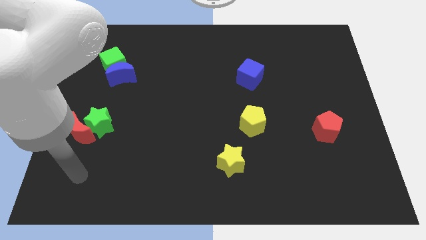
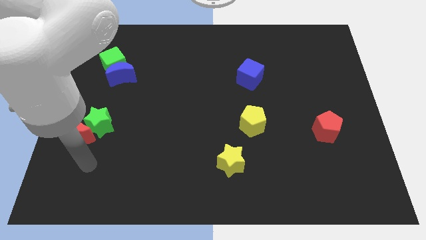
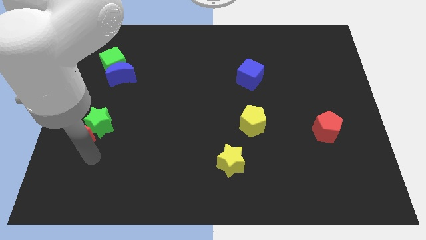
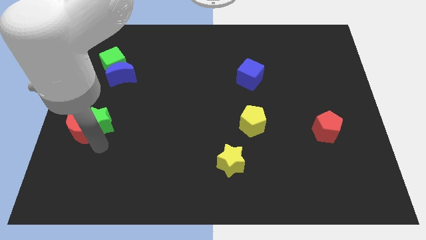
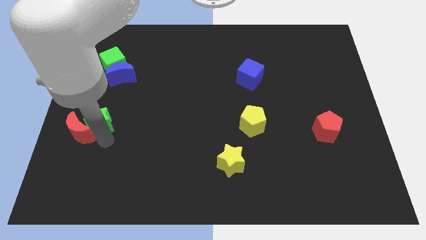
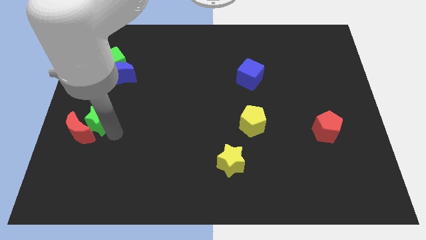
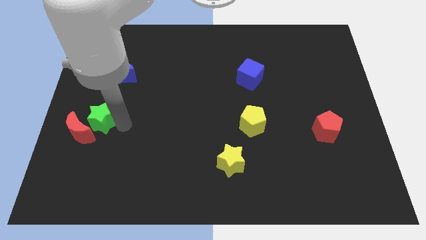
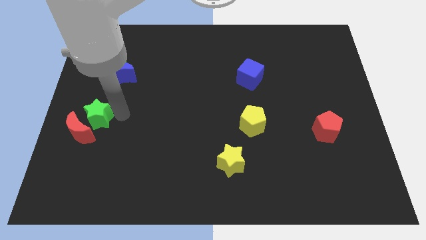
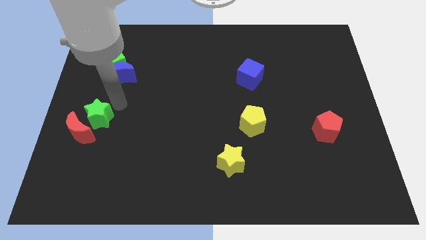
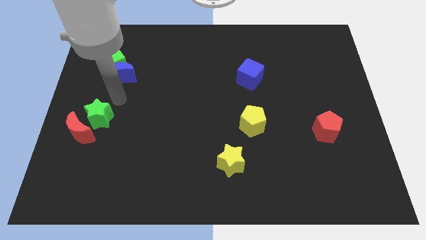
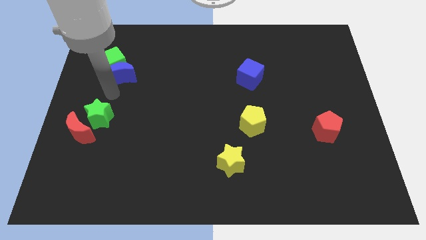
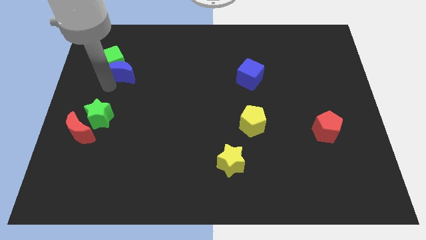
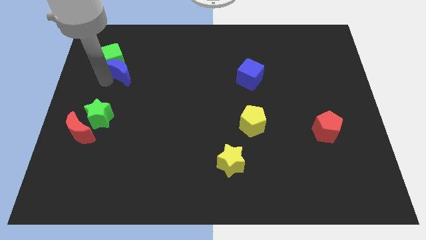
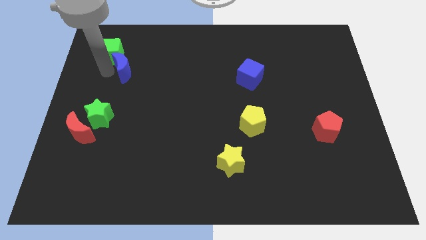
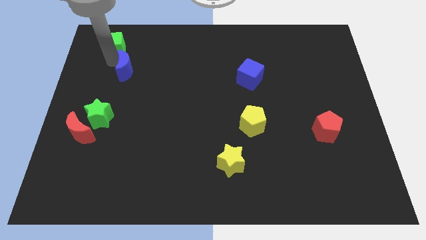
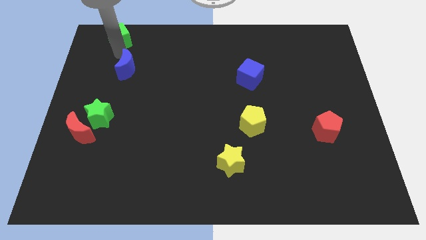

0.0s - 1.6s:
pull the blue moon apart from the green cube

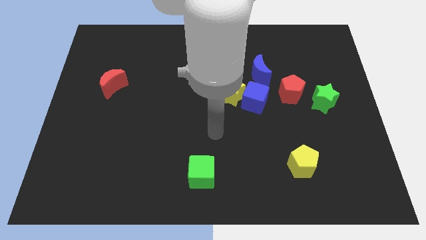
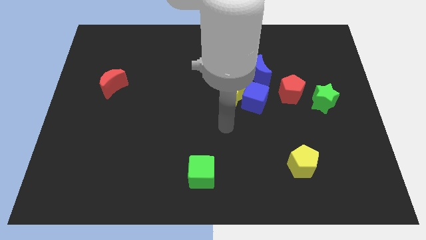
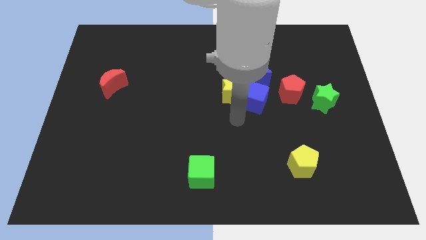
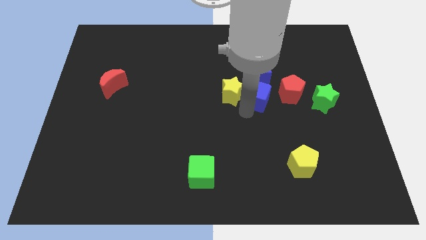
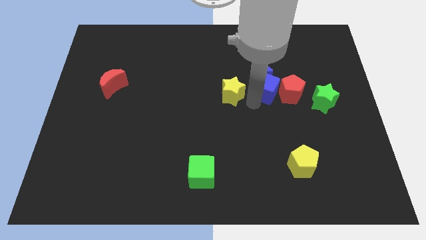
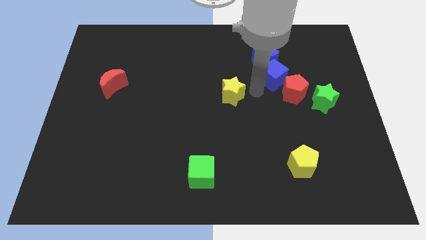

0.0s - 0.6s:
separate the yellow star from the blue cube and blue moon

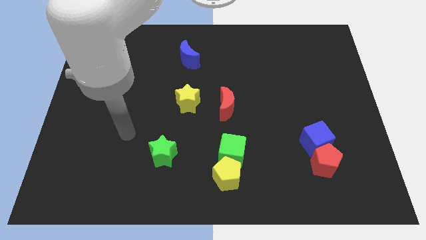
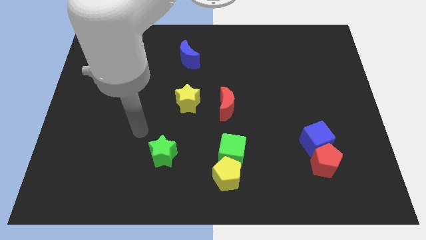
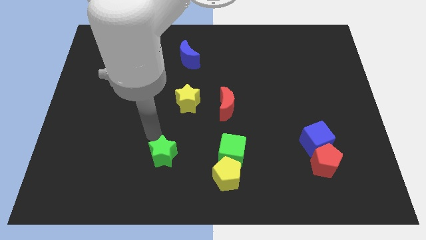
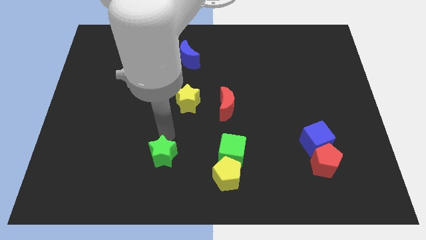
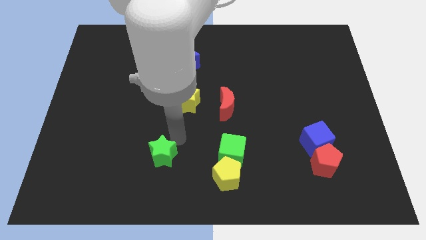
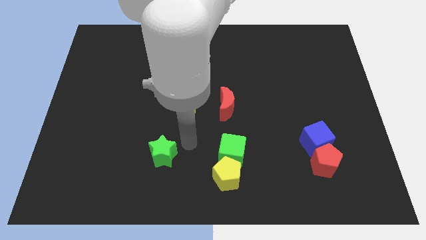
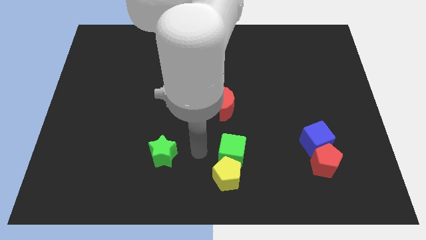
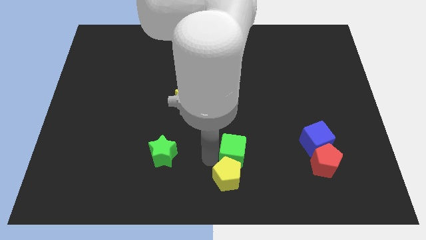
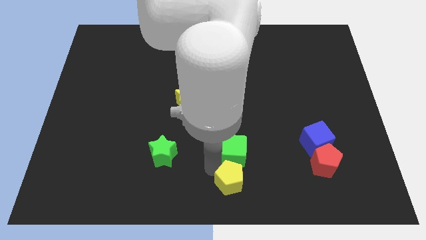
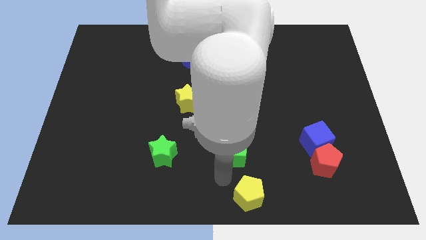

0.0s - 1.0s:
move the green cube away from the yellow pentagon

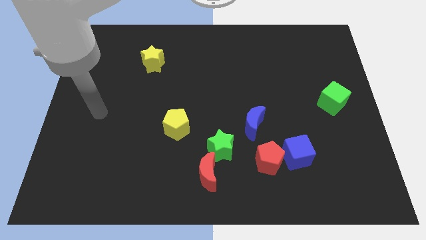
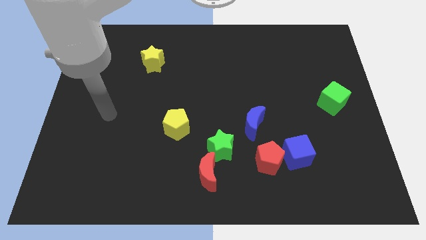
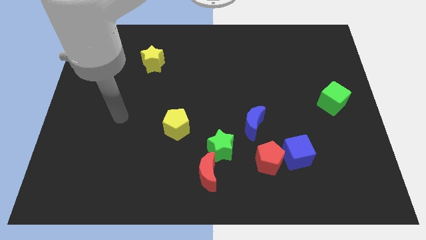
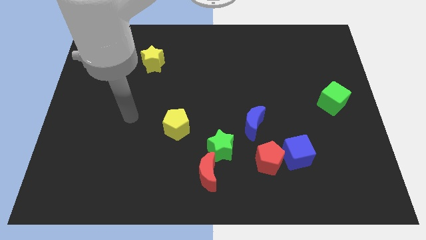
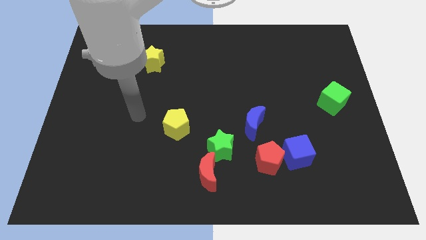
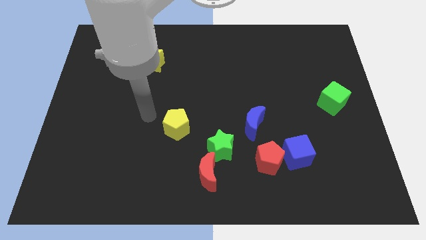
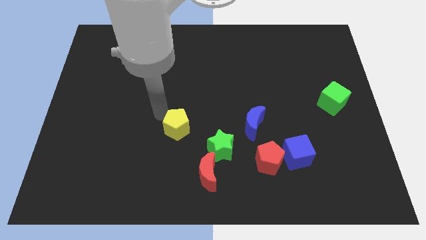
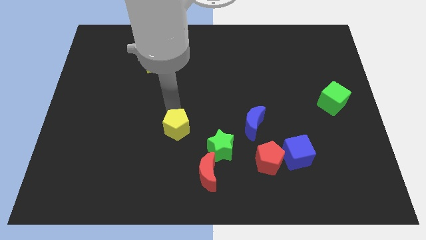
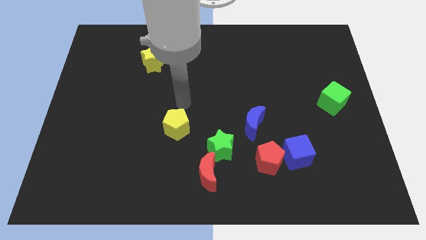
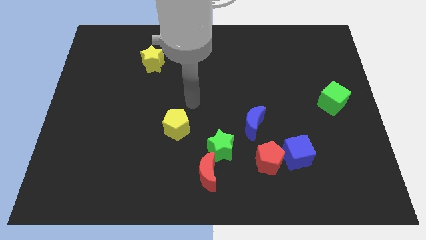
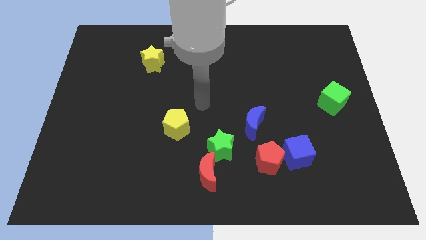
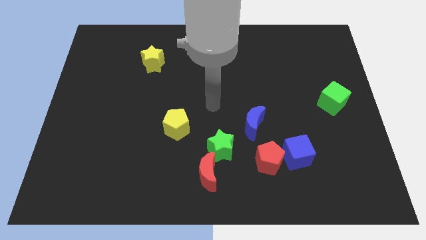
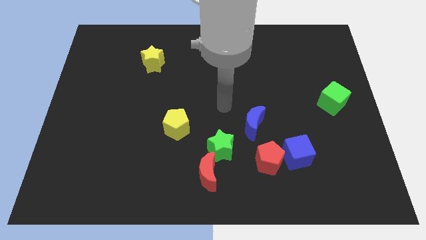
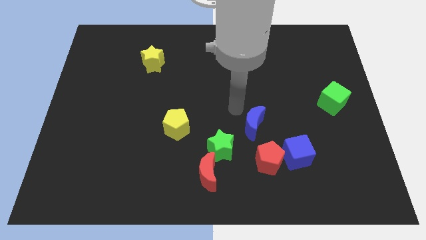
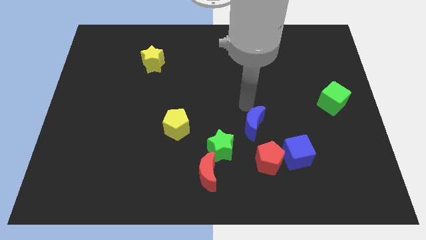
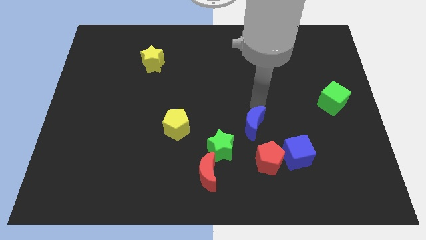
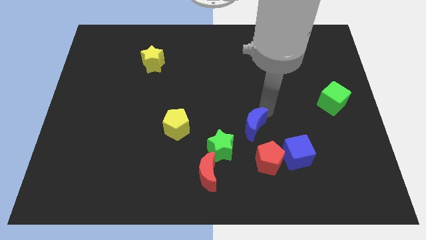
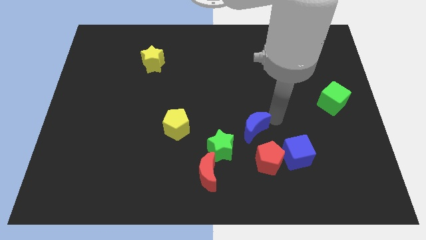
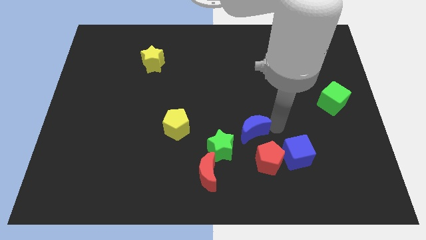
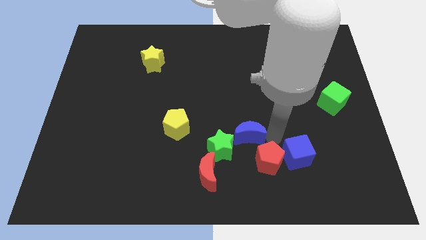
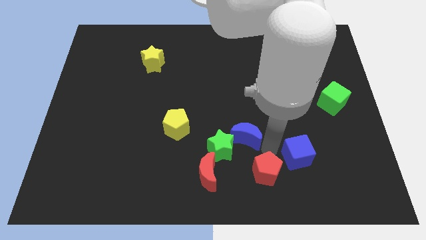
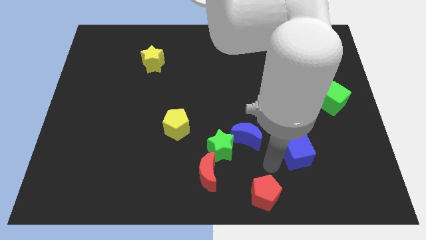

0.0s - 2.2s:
move the blue cube away from the red pentagon

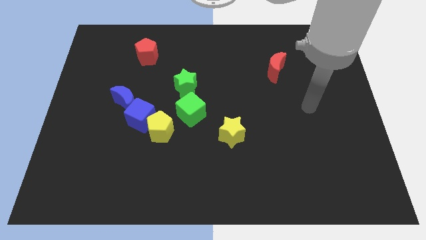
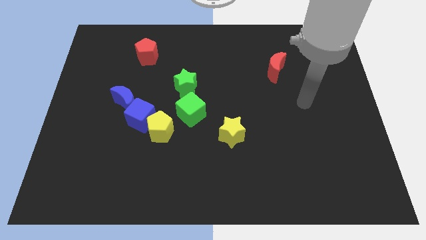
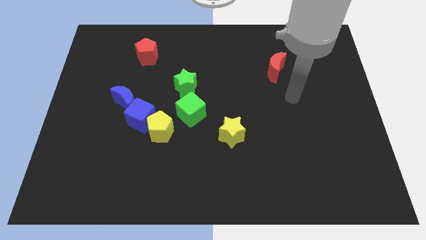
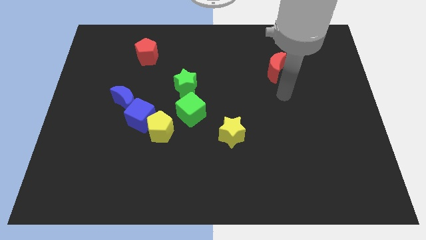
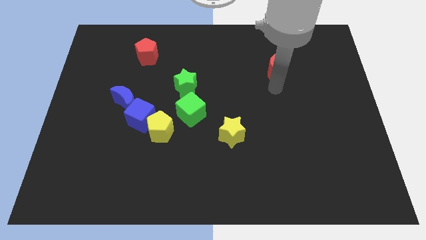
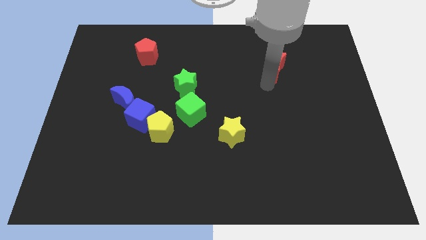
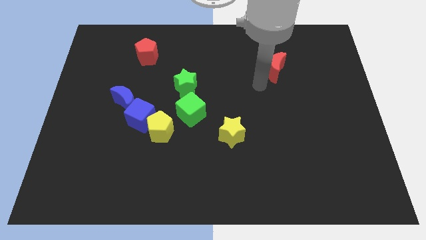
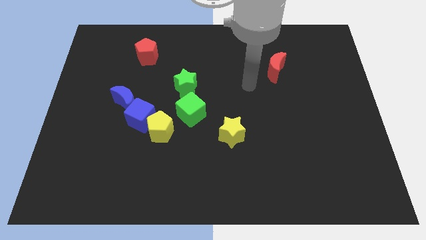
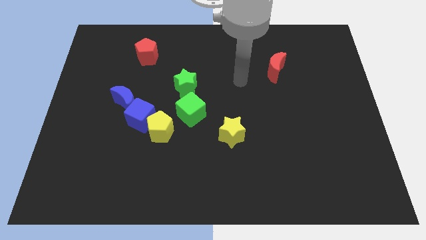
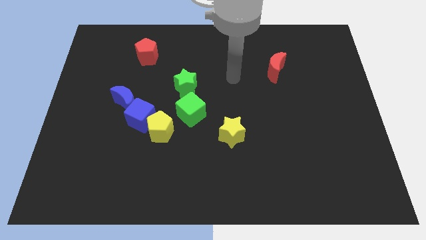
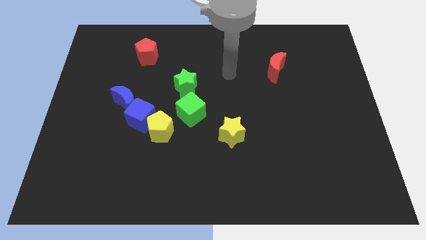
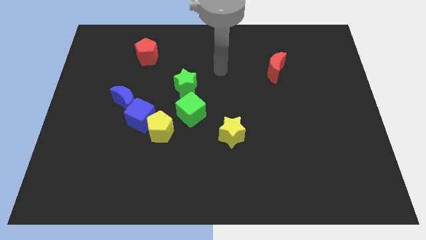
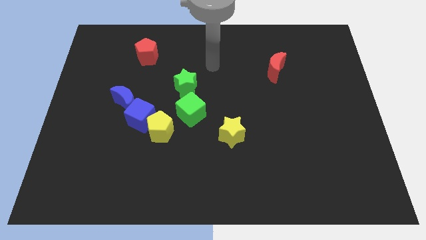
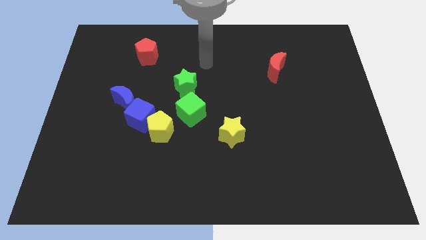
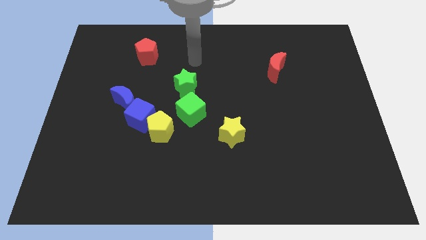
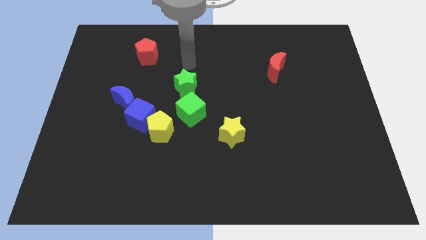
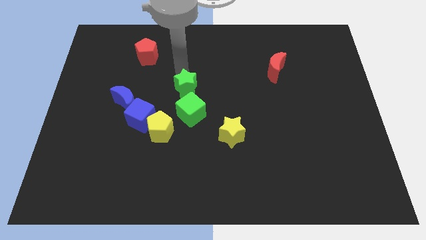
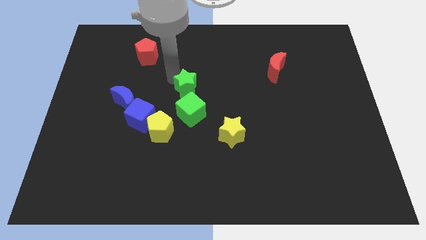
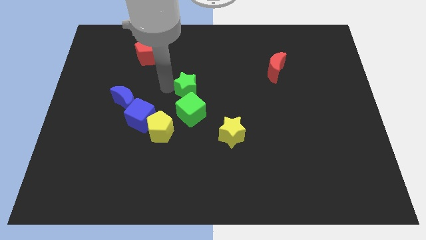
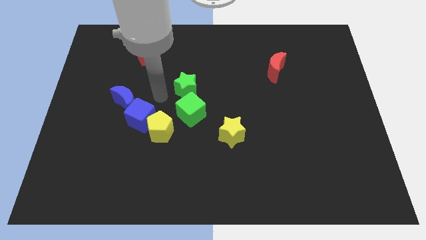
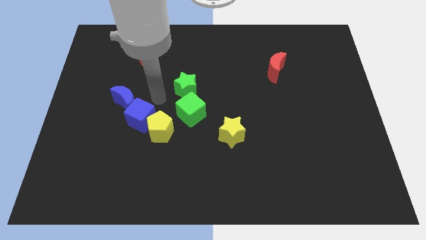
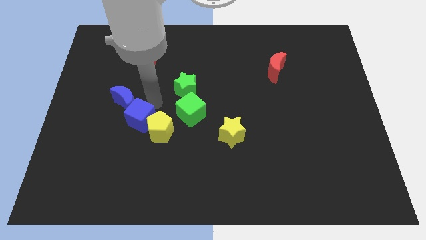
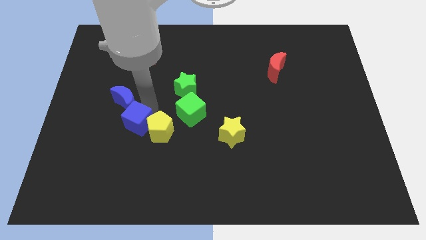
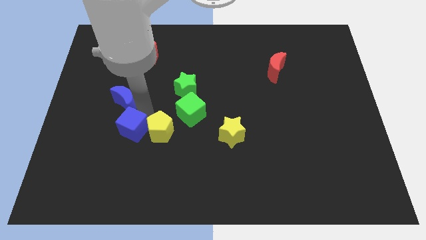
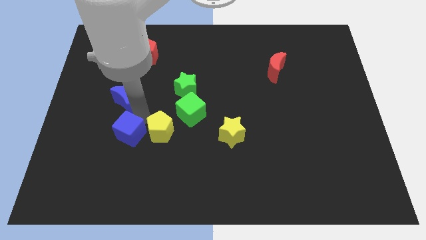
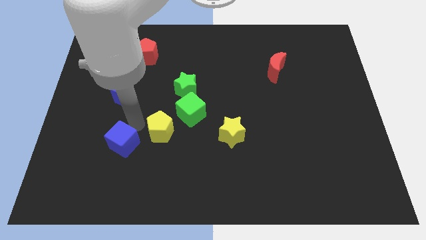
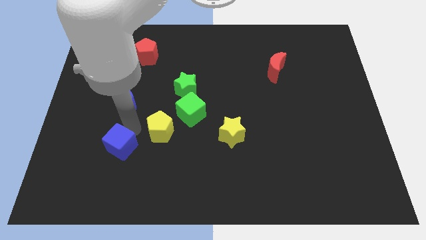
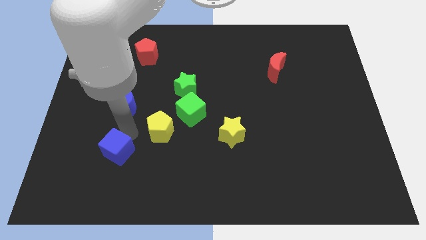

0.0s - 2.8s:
pull the blue cube apart from the yellow pentagon and blue moon

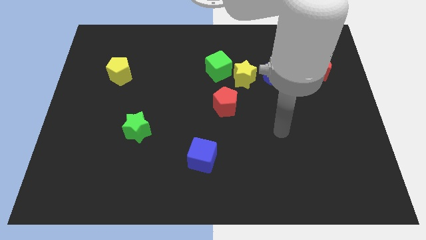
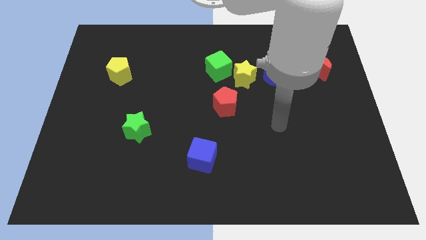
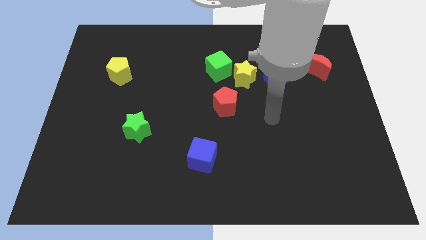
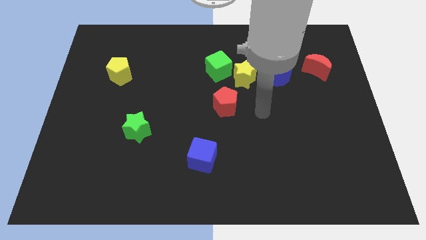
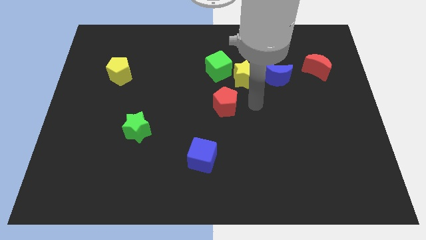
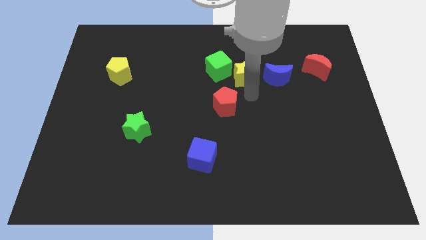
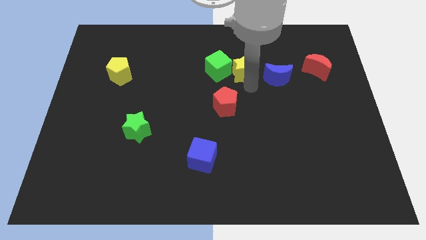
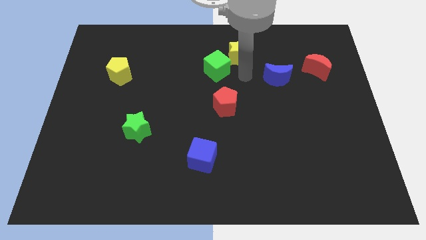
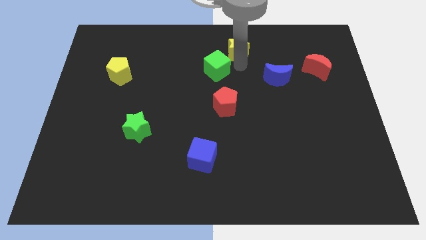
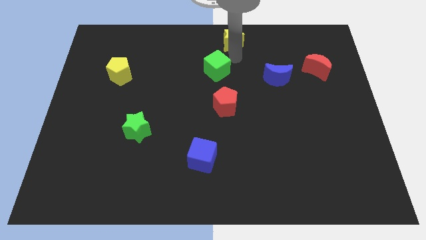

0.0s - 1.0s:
pull the green cube apart from the yellow star
